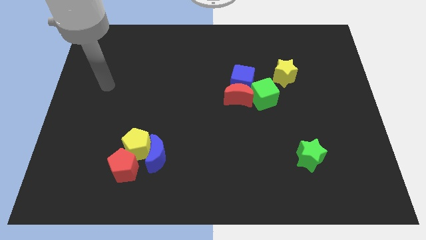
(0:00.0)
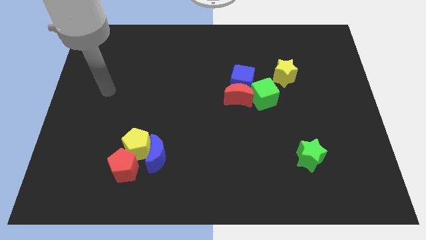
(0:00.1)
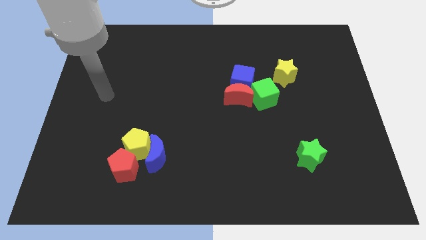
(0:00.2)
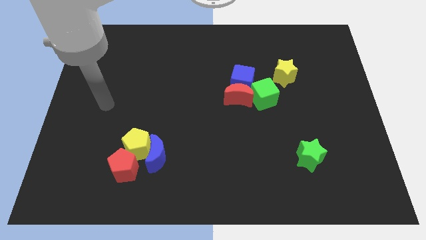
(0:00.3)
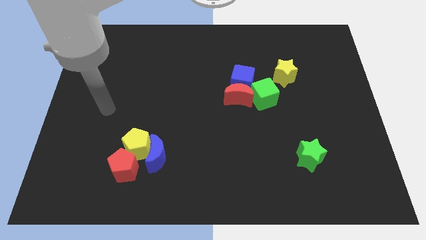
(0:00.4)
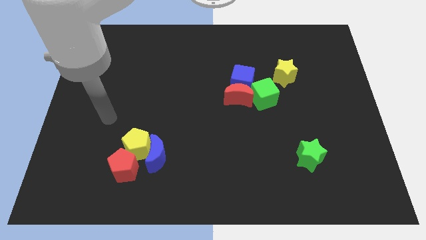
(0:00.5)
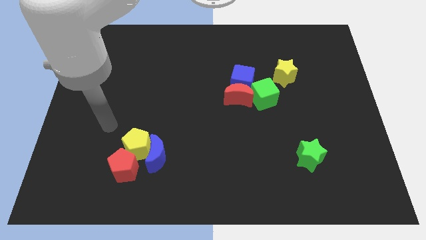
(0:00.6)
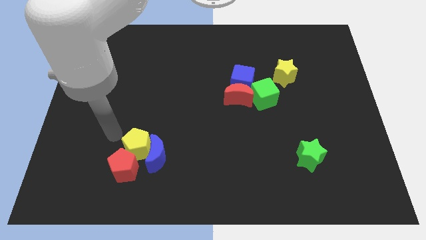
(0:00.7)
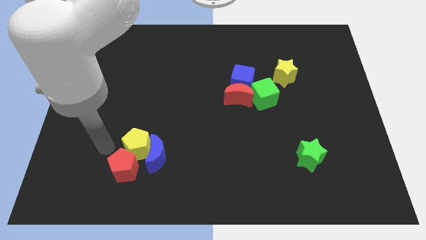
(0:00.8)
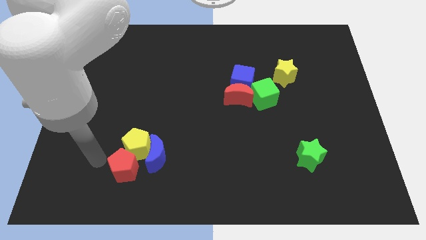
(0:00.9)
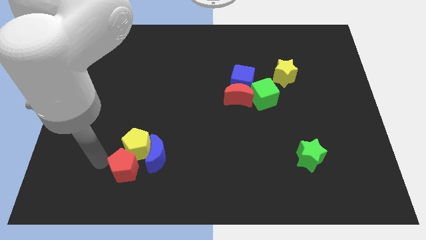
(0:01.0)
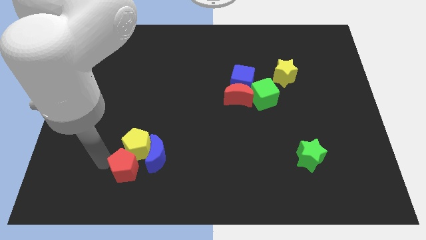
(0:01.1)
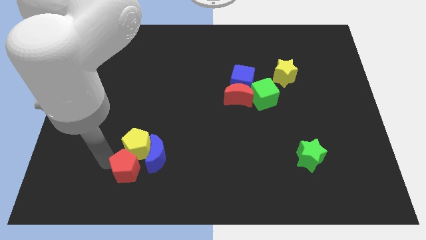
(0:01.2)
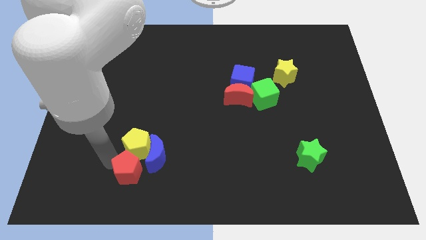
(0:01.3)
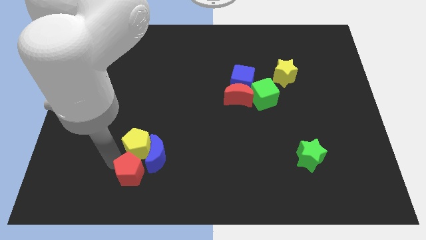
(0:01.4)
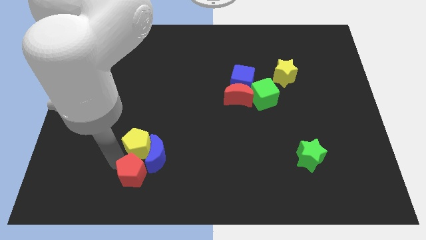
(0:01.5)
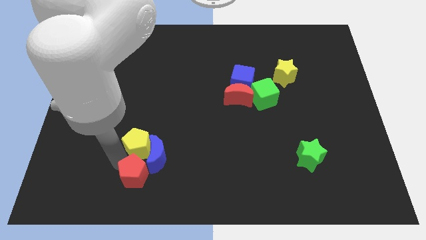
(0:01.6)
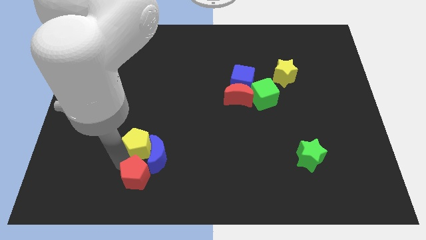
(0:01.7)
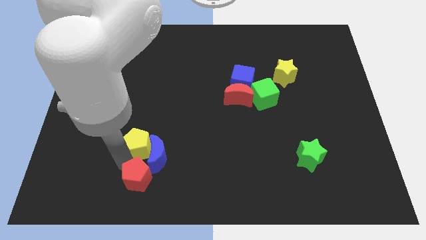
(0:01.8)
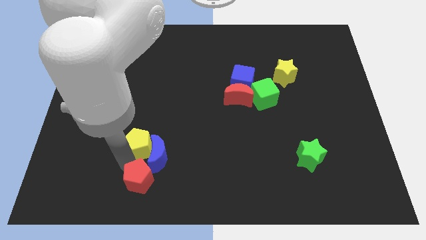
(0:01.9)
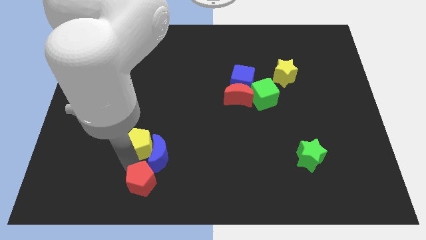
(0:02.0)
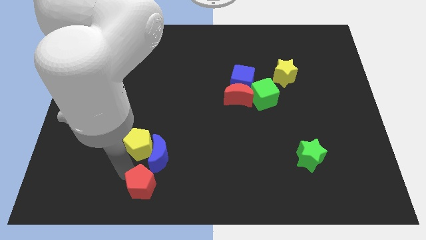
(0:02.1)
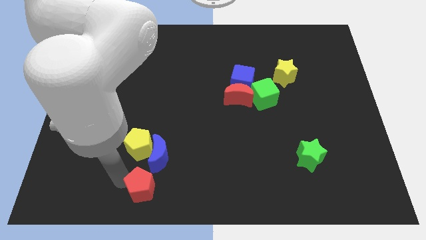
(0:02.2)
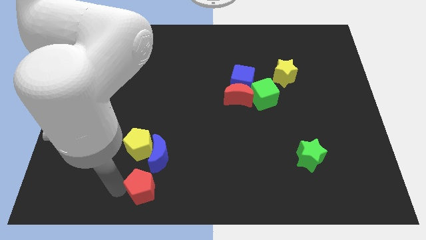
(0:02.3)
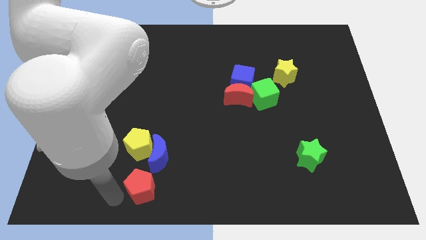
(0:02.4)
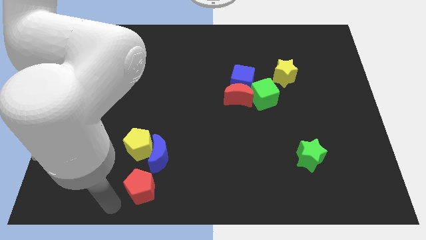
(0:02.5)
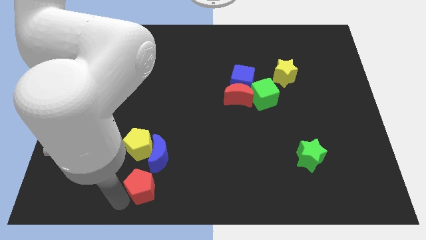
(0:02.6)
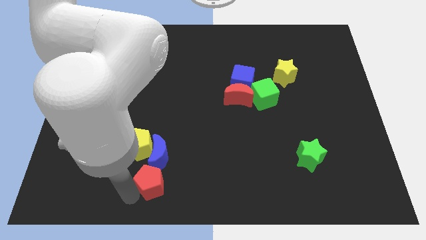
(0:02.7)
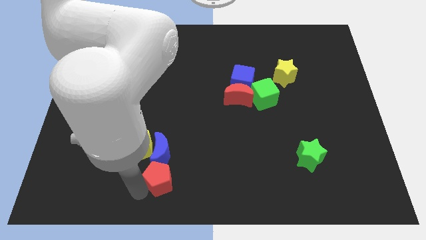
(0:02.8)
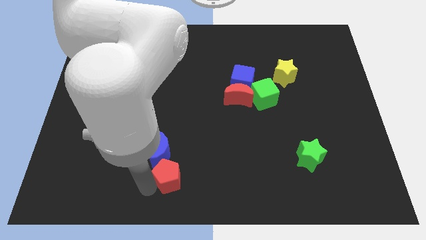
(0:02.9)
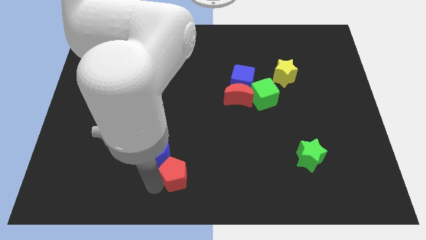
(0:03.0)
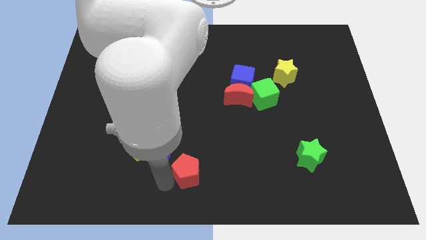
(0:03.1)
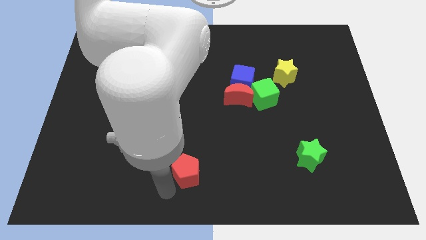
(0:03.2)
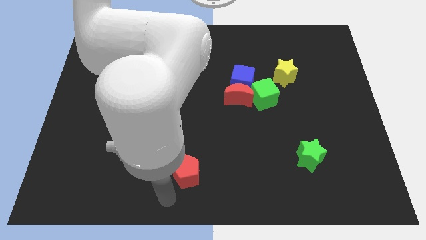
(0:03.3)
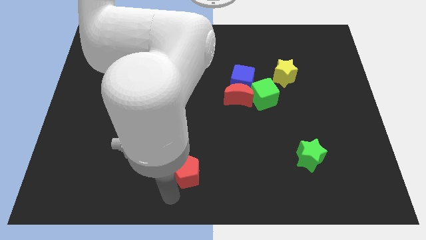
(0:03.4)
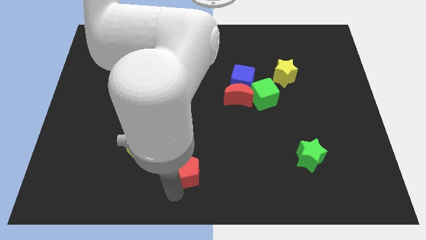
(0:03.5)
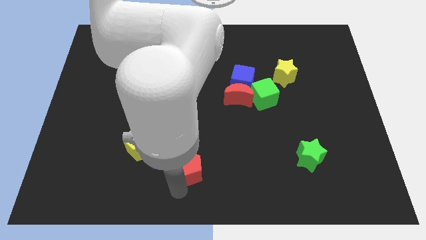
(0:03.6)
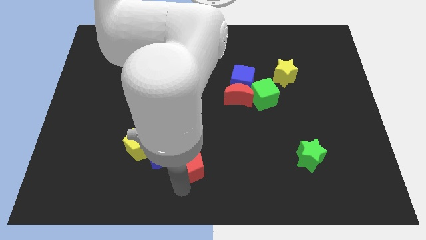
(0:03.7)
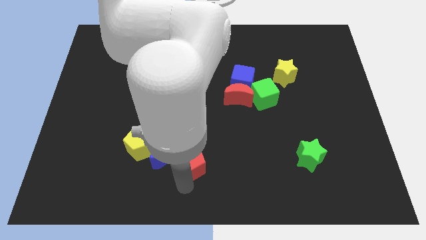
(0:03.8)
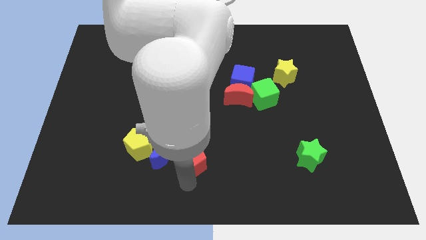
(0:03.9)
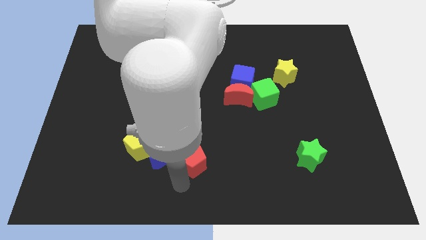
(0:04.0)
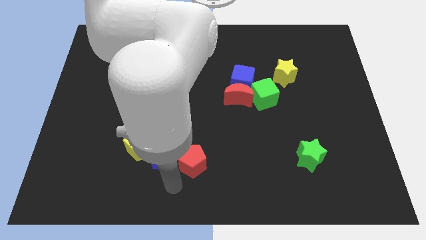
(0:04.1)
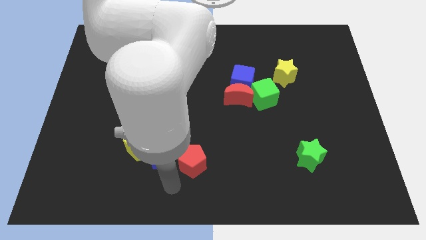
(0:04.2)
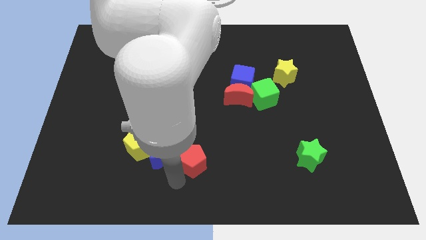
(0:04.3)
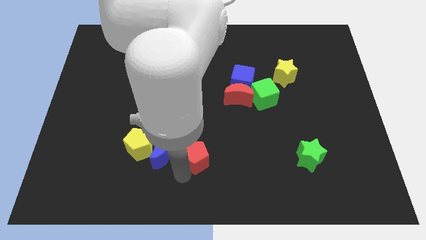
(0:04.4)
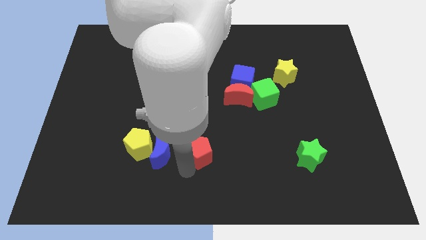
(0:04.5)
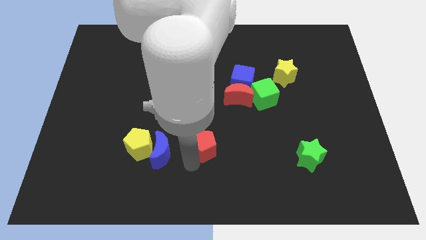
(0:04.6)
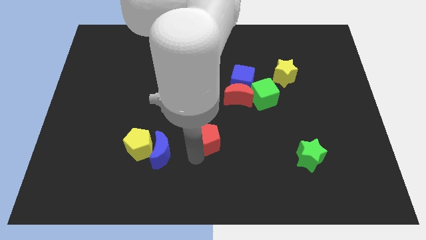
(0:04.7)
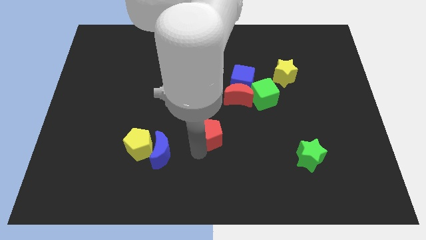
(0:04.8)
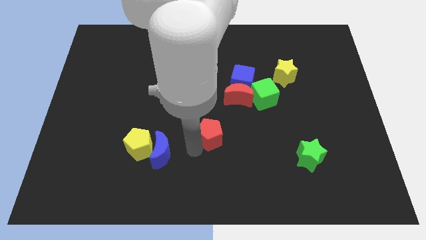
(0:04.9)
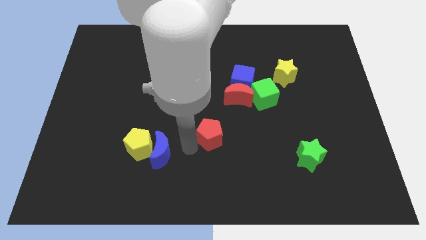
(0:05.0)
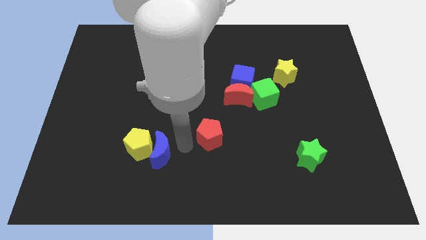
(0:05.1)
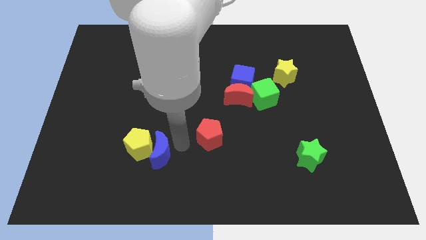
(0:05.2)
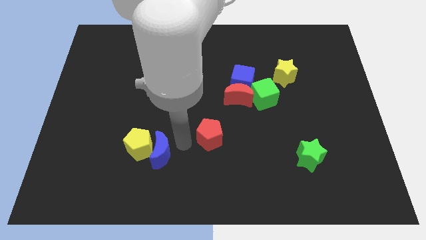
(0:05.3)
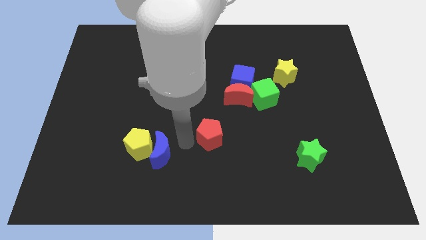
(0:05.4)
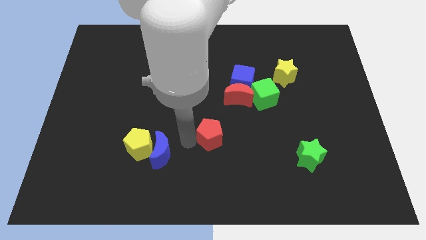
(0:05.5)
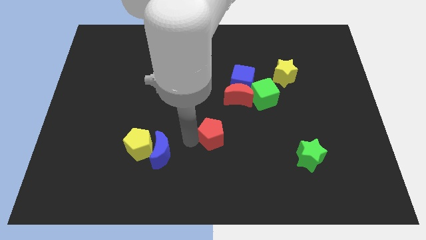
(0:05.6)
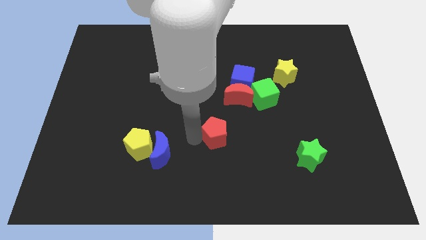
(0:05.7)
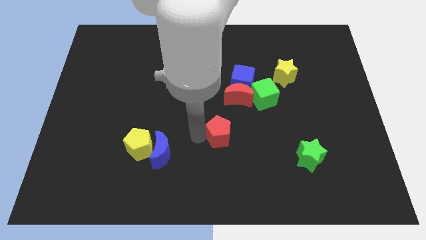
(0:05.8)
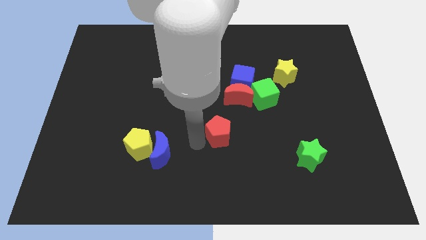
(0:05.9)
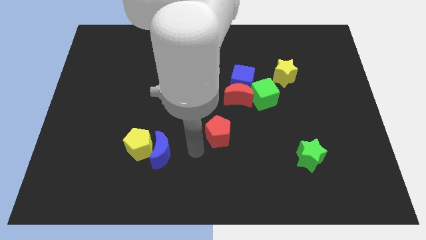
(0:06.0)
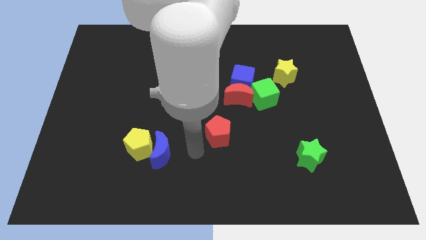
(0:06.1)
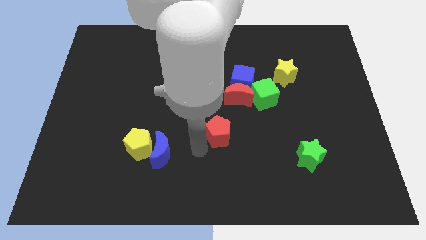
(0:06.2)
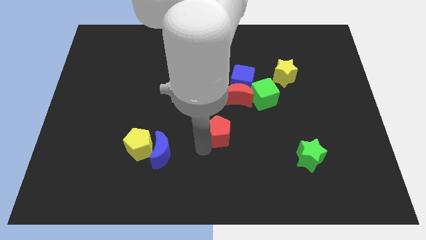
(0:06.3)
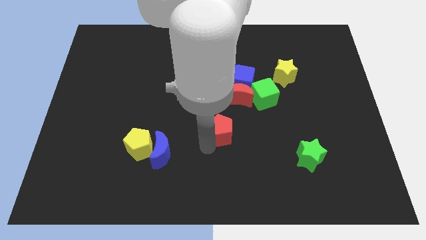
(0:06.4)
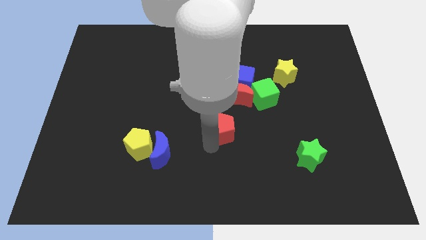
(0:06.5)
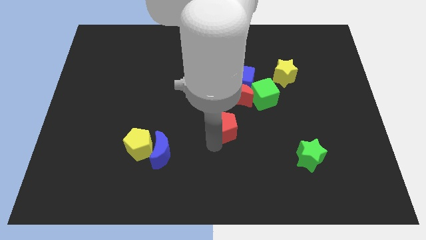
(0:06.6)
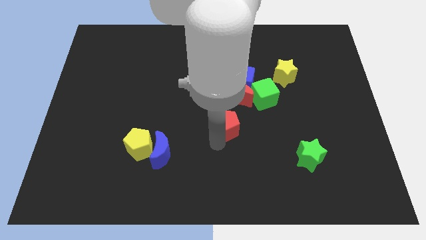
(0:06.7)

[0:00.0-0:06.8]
put the red pentagon to the bottom side of the blue cube

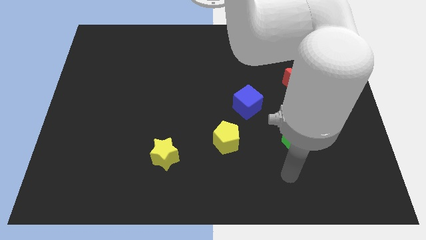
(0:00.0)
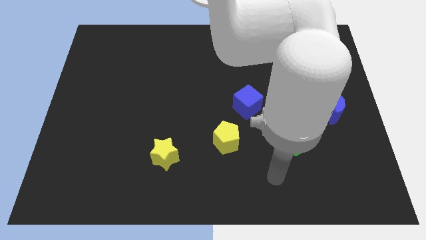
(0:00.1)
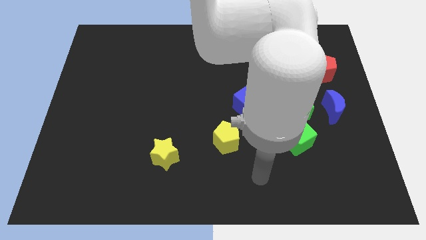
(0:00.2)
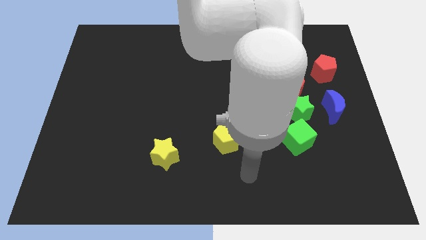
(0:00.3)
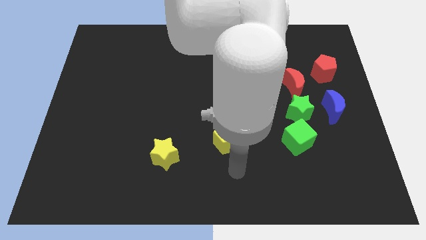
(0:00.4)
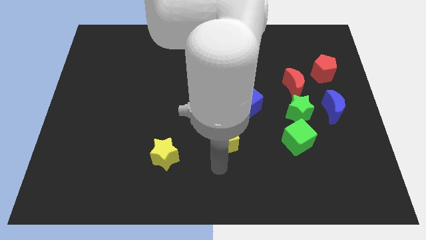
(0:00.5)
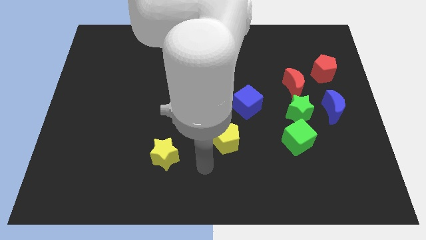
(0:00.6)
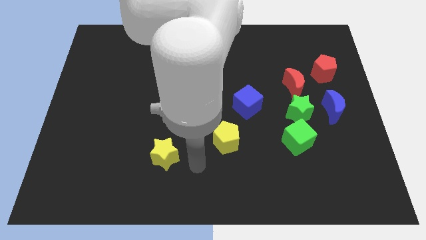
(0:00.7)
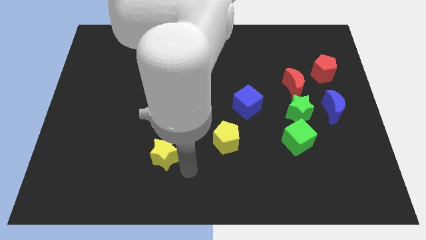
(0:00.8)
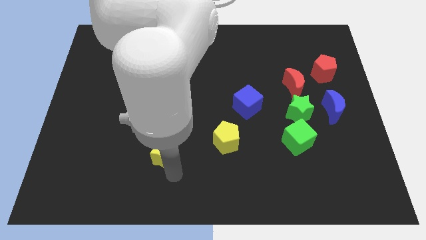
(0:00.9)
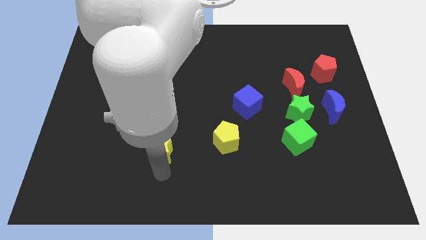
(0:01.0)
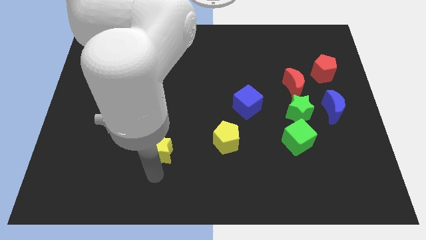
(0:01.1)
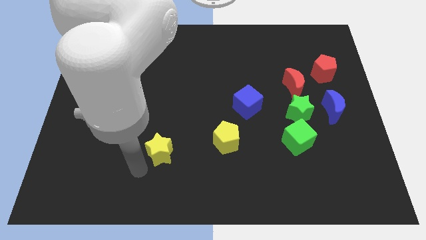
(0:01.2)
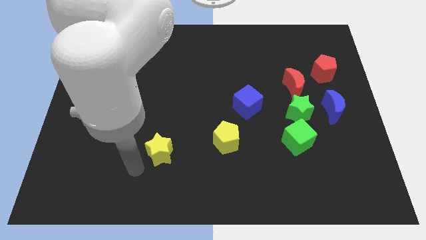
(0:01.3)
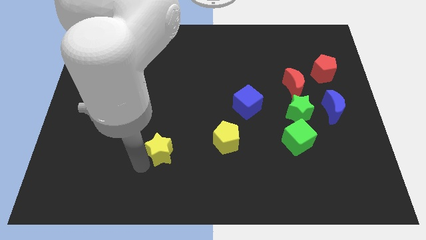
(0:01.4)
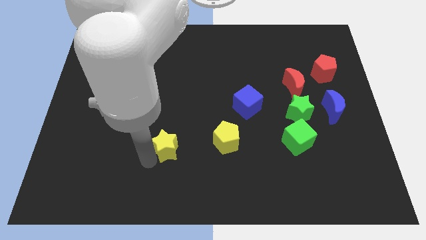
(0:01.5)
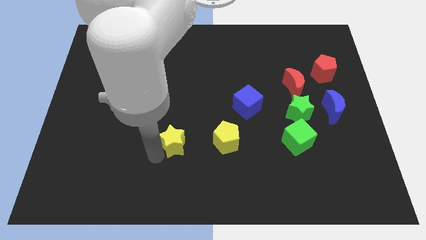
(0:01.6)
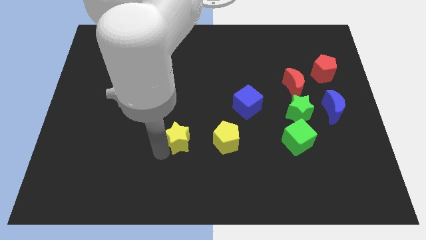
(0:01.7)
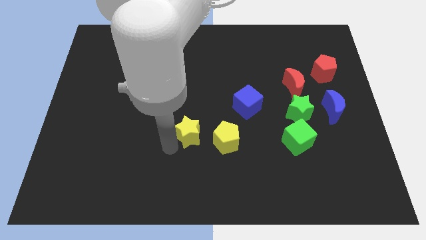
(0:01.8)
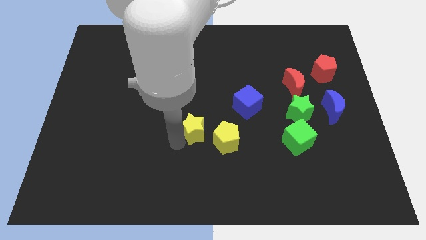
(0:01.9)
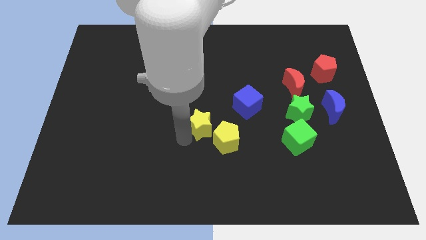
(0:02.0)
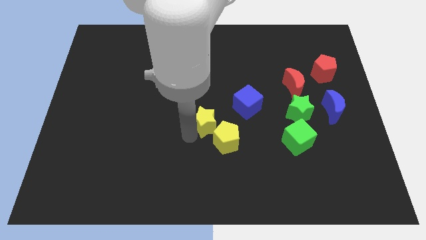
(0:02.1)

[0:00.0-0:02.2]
put the yellow star above the yellow pentagon
